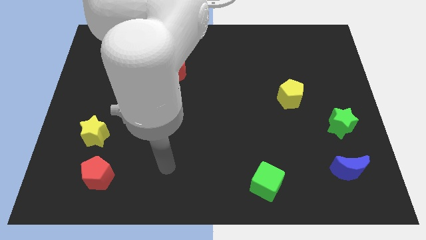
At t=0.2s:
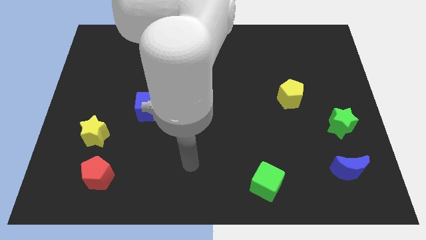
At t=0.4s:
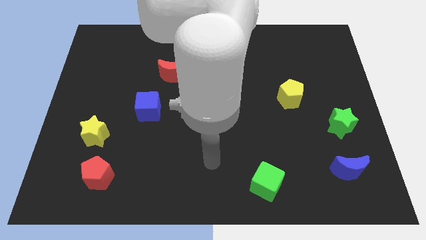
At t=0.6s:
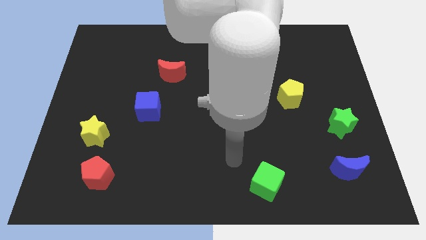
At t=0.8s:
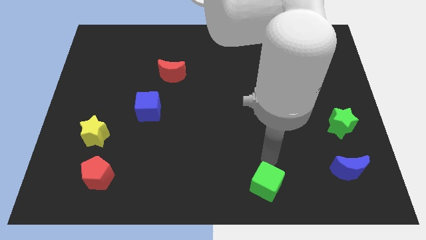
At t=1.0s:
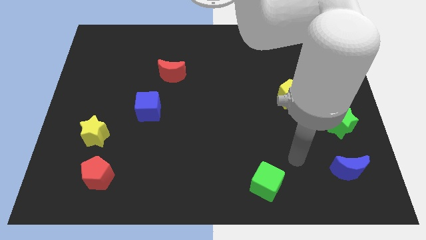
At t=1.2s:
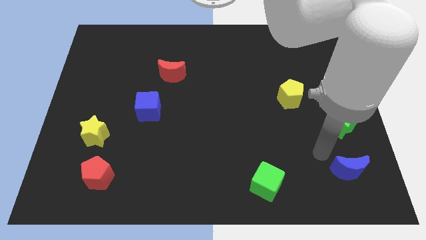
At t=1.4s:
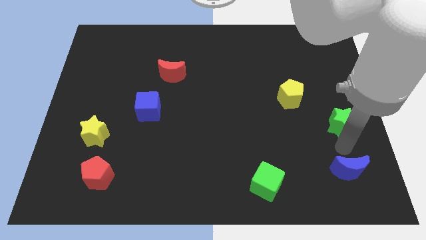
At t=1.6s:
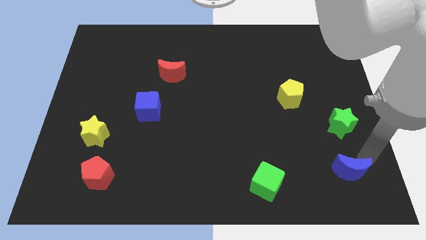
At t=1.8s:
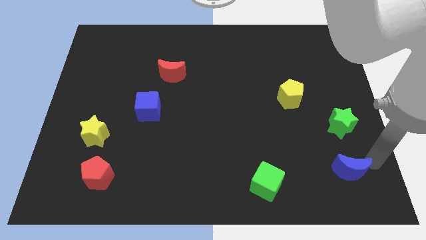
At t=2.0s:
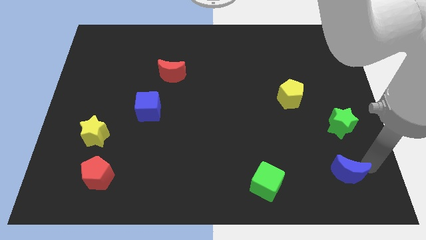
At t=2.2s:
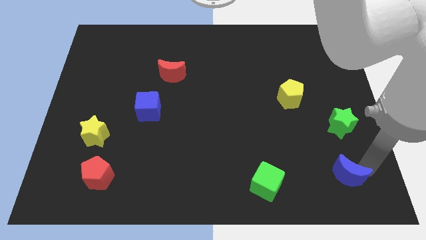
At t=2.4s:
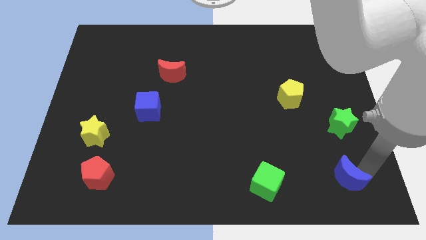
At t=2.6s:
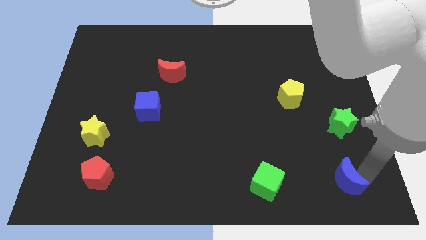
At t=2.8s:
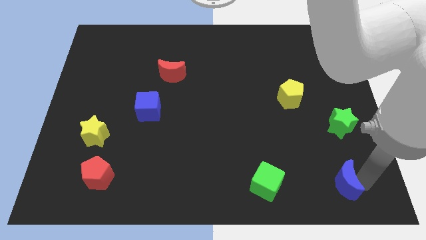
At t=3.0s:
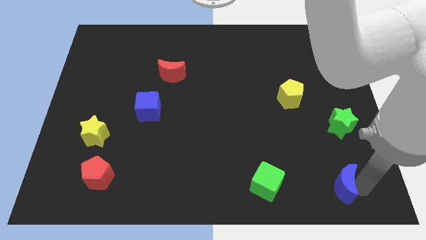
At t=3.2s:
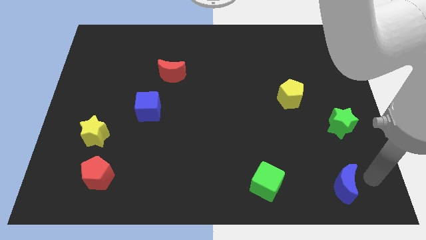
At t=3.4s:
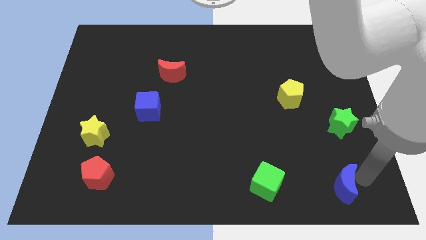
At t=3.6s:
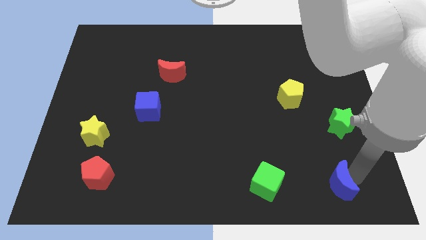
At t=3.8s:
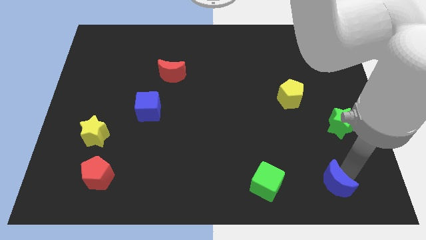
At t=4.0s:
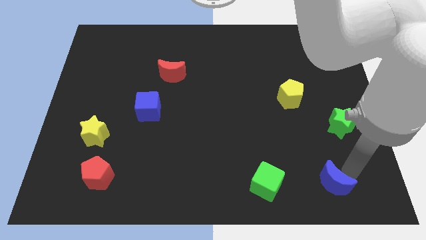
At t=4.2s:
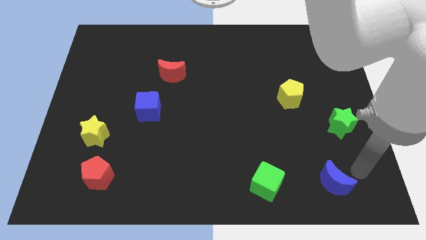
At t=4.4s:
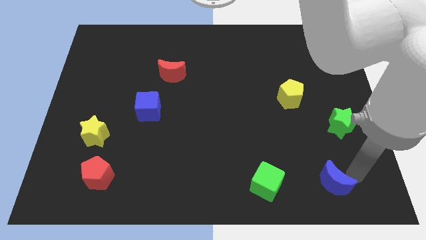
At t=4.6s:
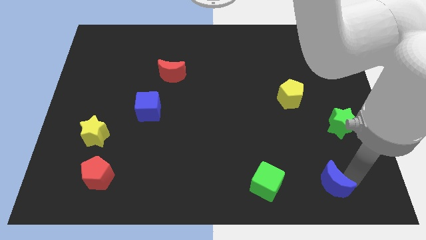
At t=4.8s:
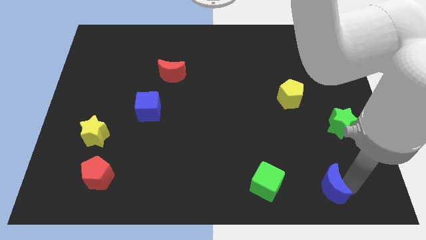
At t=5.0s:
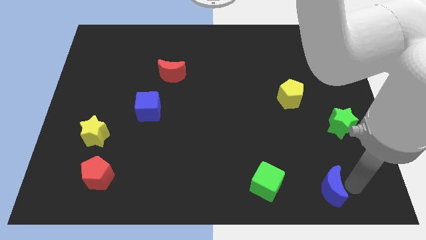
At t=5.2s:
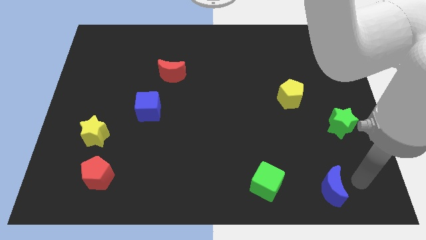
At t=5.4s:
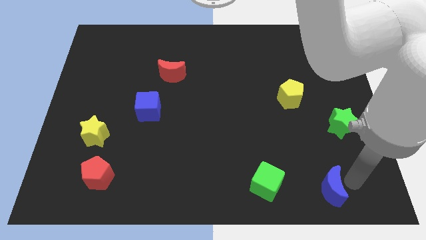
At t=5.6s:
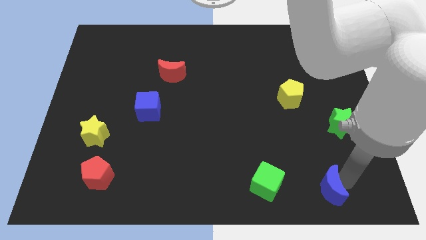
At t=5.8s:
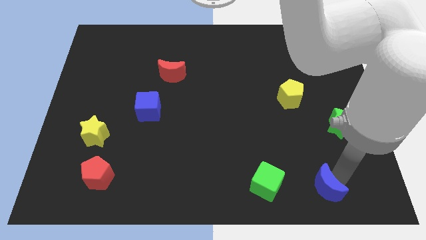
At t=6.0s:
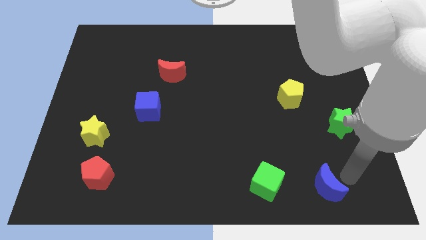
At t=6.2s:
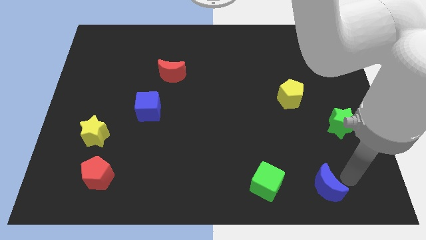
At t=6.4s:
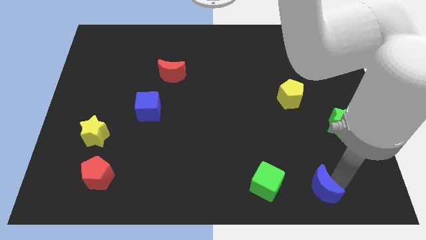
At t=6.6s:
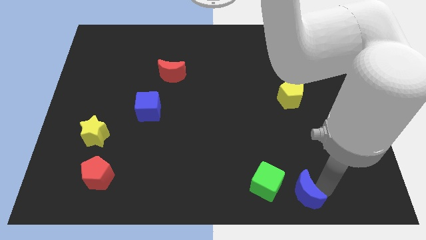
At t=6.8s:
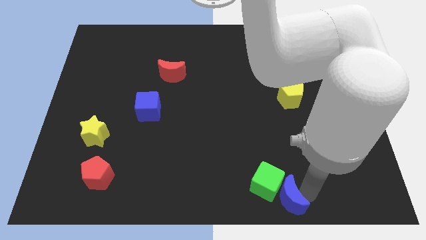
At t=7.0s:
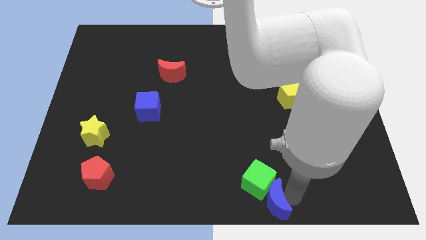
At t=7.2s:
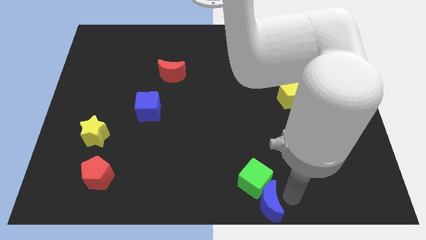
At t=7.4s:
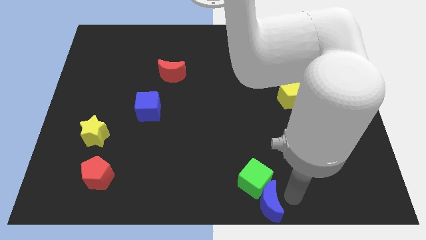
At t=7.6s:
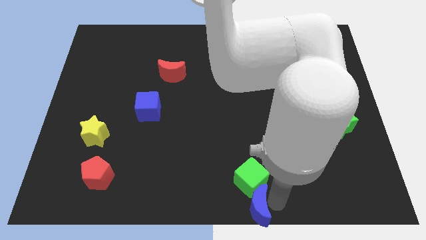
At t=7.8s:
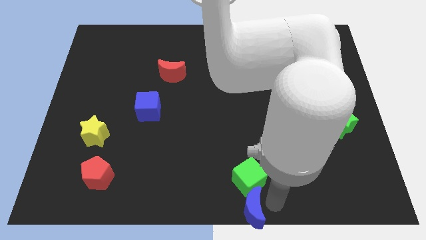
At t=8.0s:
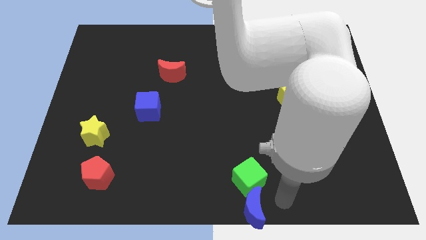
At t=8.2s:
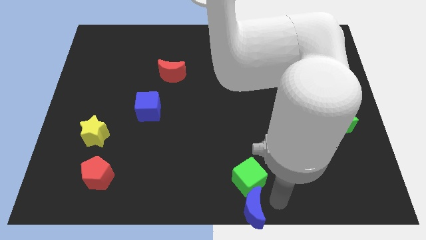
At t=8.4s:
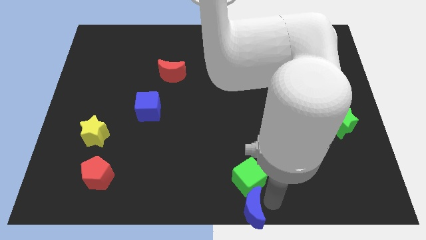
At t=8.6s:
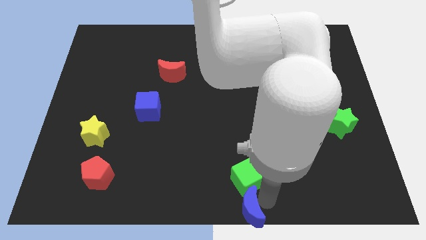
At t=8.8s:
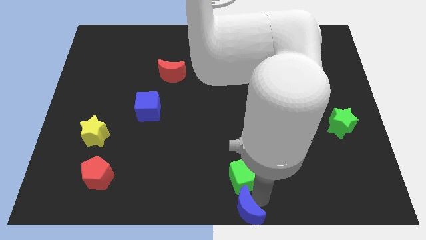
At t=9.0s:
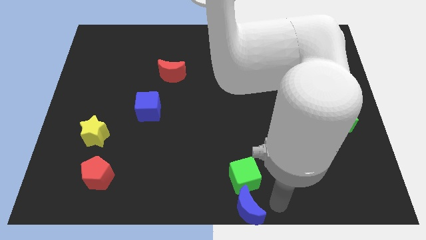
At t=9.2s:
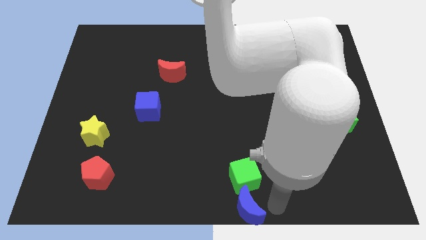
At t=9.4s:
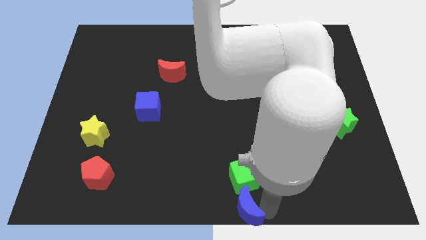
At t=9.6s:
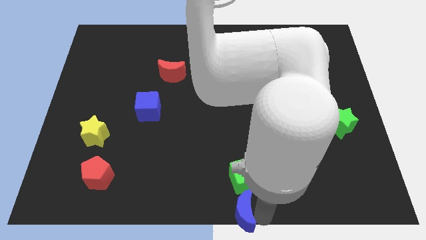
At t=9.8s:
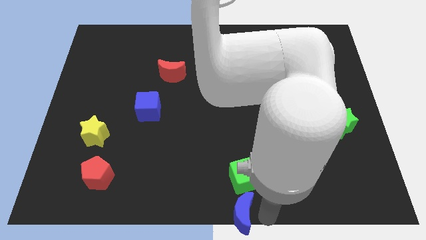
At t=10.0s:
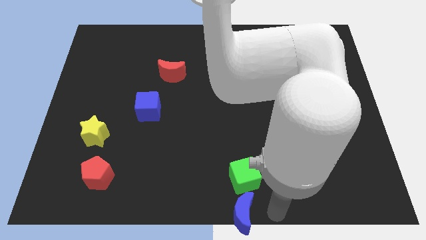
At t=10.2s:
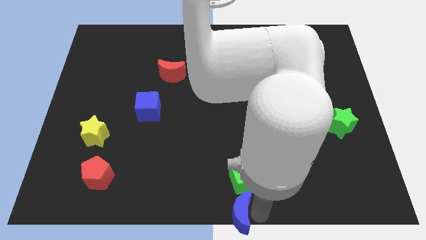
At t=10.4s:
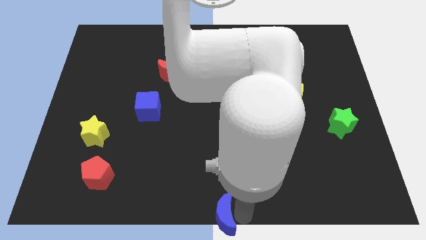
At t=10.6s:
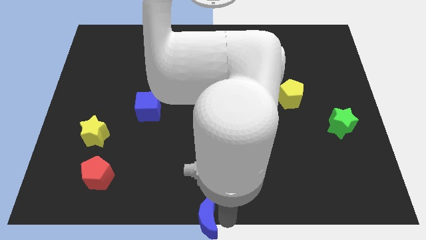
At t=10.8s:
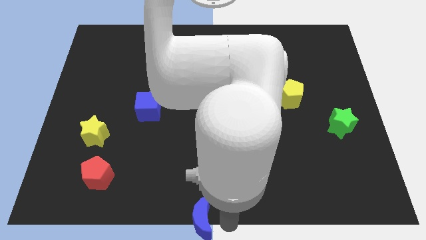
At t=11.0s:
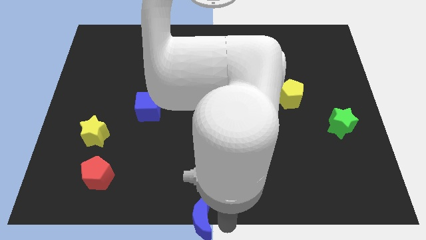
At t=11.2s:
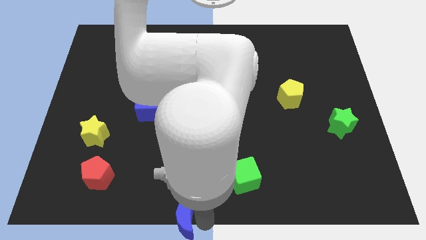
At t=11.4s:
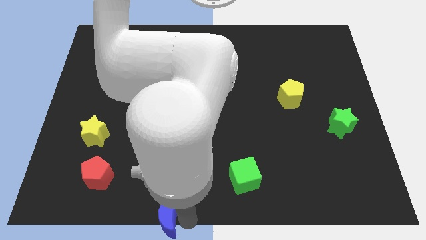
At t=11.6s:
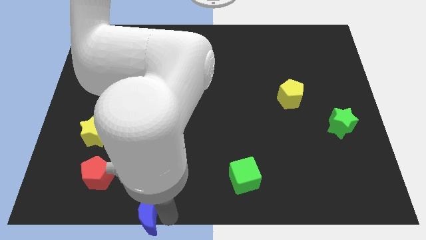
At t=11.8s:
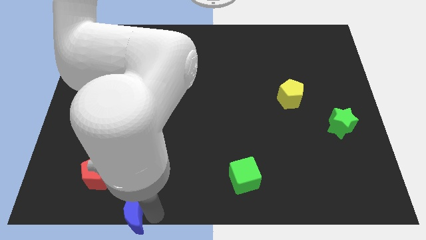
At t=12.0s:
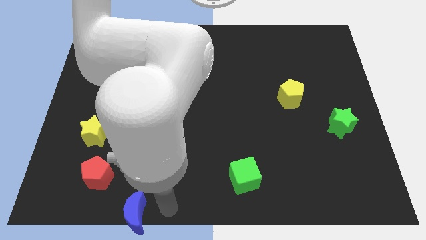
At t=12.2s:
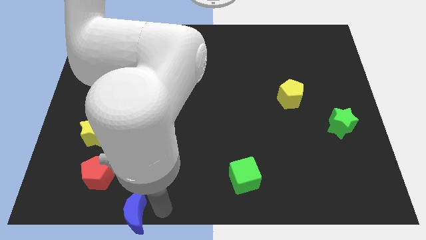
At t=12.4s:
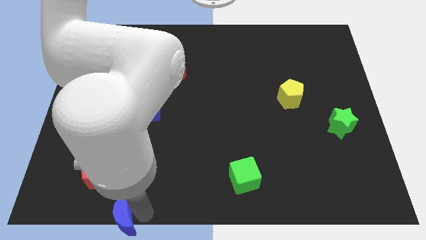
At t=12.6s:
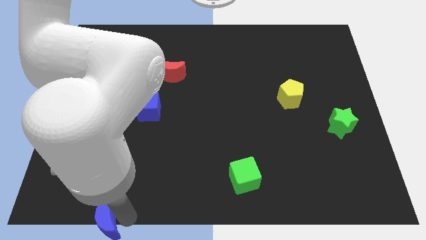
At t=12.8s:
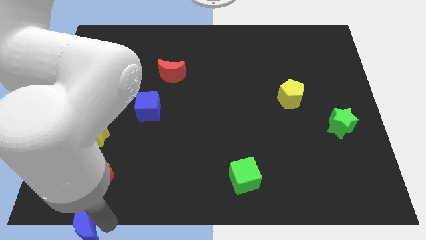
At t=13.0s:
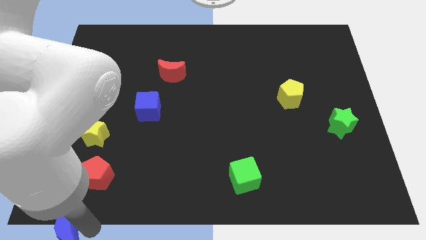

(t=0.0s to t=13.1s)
move the blue moon to the bottom left of the board
